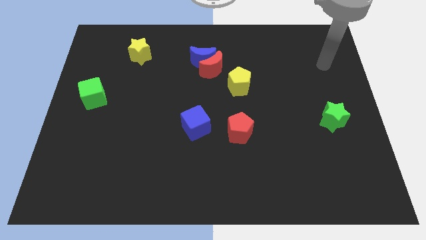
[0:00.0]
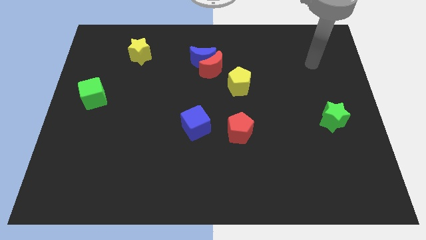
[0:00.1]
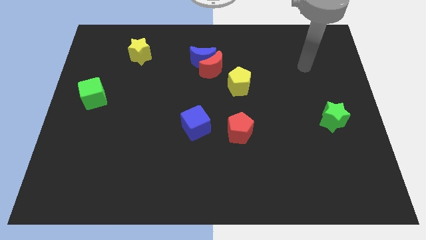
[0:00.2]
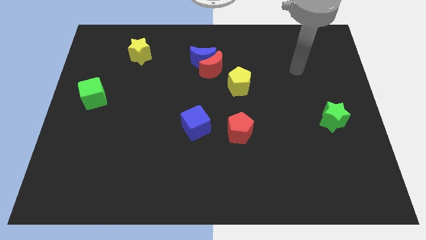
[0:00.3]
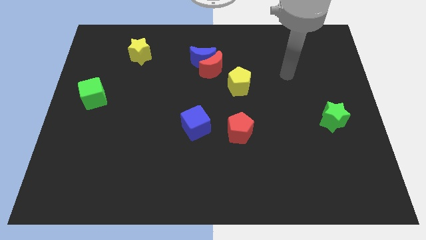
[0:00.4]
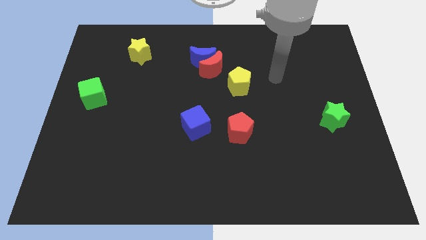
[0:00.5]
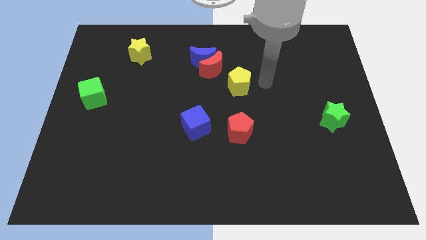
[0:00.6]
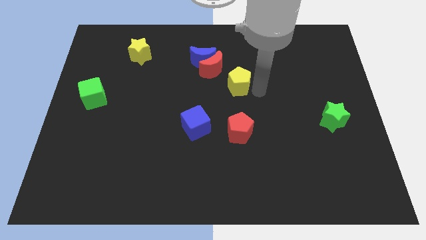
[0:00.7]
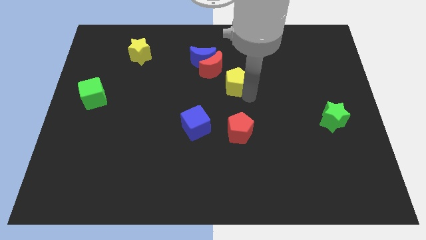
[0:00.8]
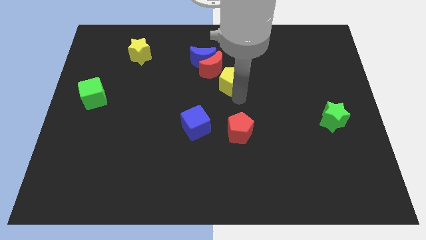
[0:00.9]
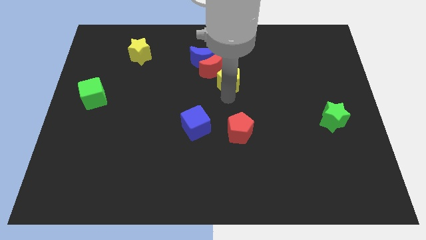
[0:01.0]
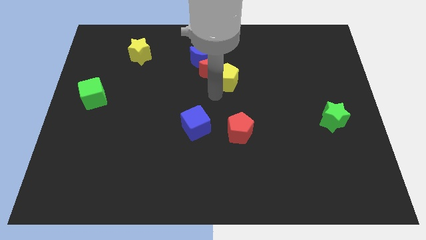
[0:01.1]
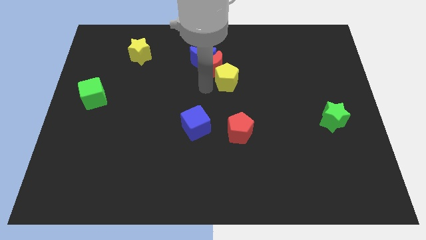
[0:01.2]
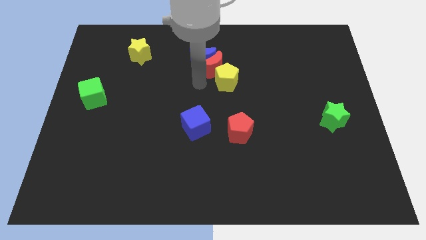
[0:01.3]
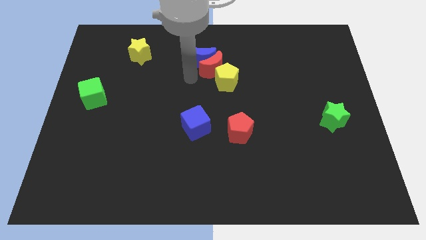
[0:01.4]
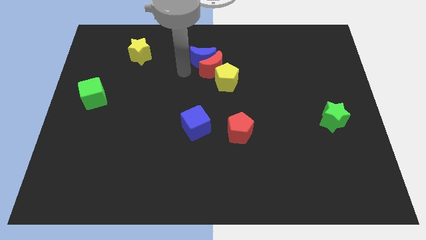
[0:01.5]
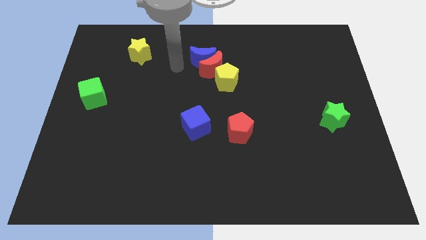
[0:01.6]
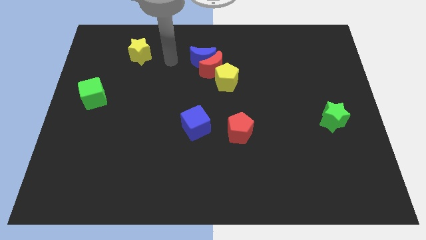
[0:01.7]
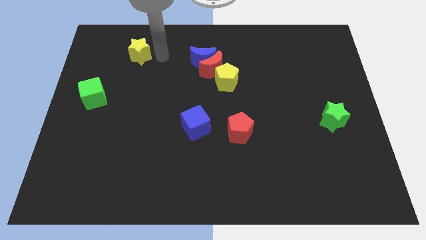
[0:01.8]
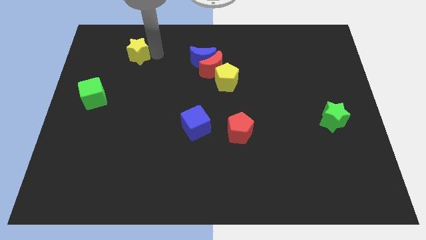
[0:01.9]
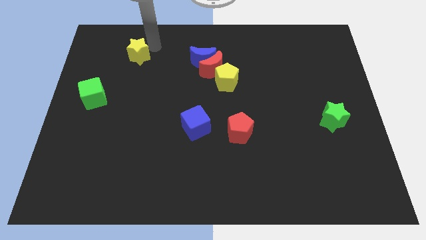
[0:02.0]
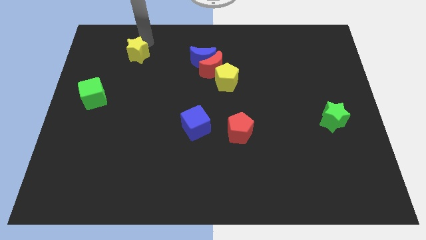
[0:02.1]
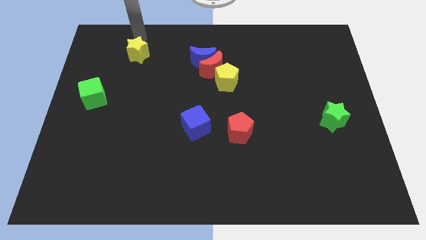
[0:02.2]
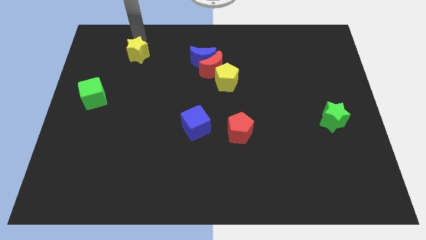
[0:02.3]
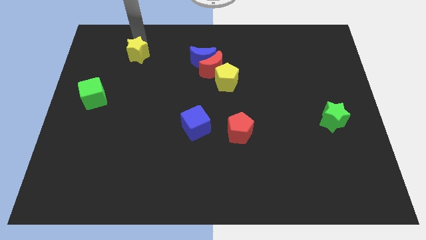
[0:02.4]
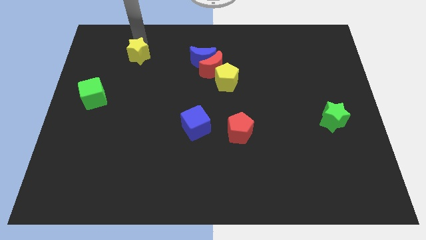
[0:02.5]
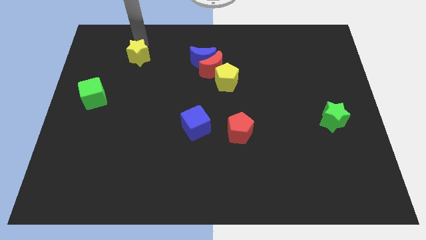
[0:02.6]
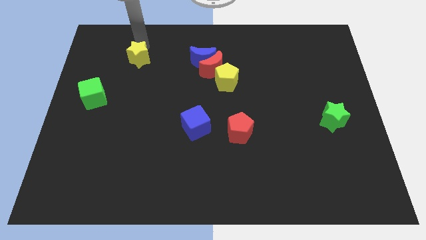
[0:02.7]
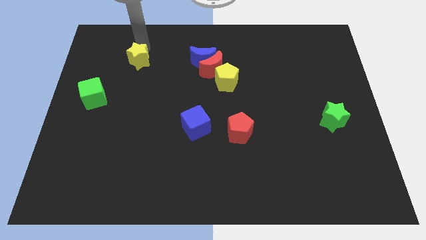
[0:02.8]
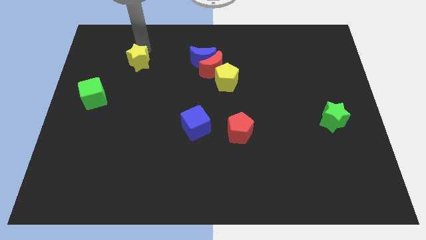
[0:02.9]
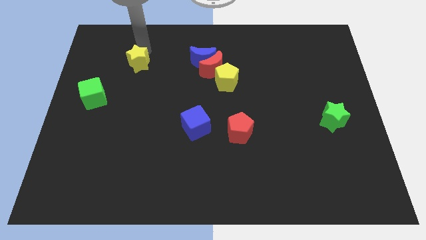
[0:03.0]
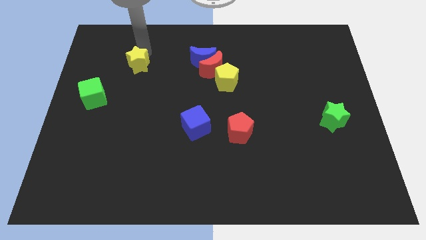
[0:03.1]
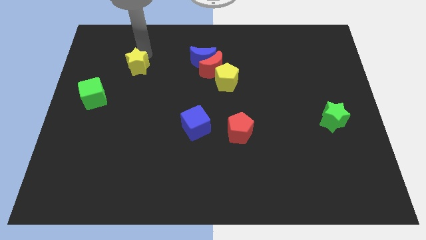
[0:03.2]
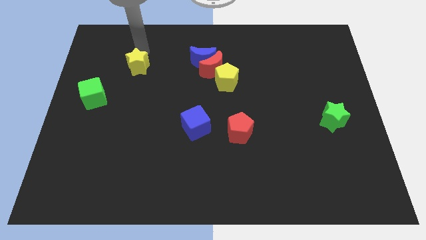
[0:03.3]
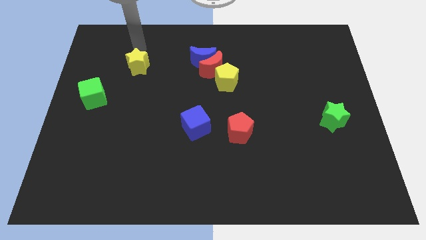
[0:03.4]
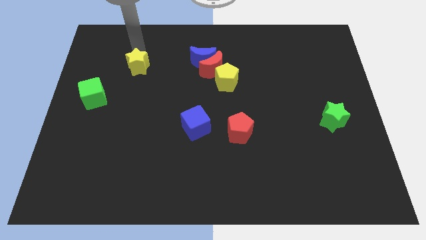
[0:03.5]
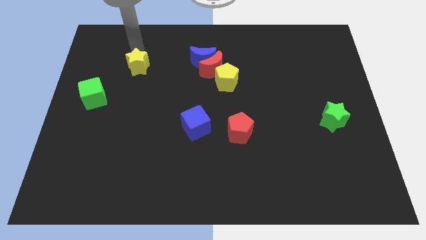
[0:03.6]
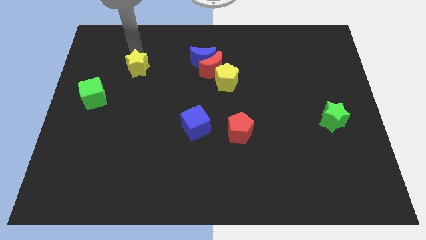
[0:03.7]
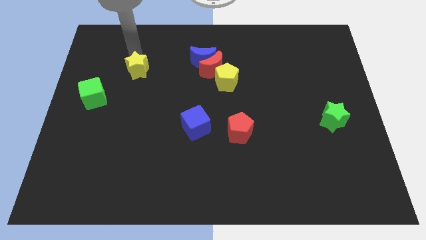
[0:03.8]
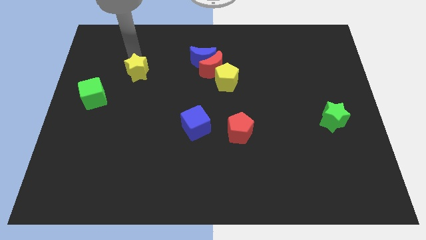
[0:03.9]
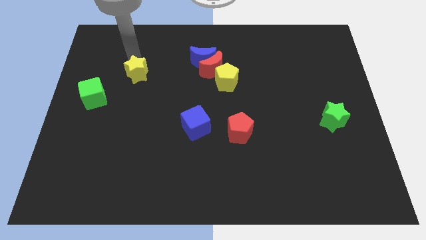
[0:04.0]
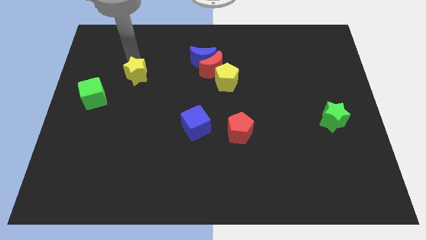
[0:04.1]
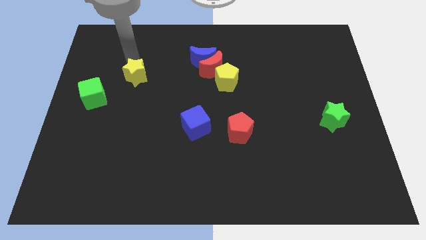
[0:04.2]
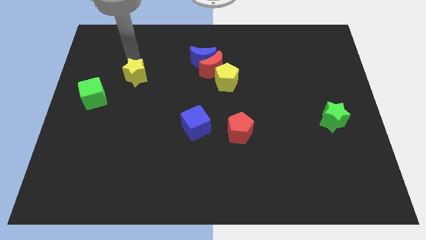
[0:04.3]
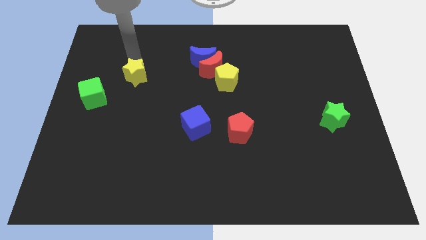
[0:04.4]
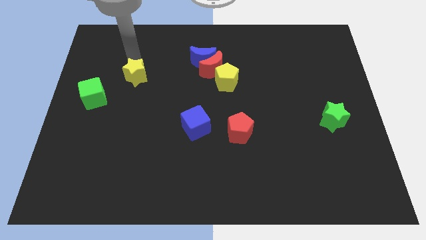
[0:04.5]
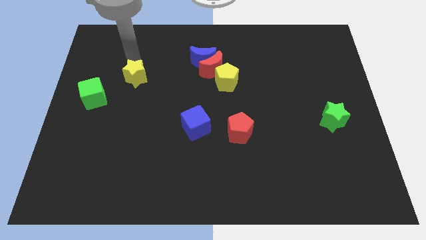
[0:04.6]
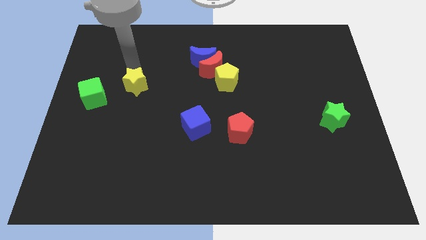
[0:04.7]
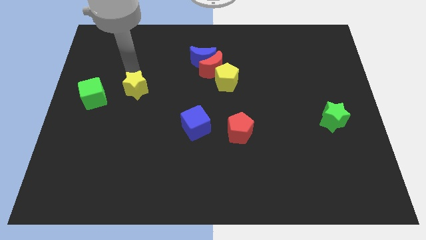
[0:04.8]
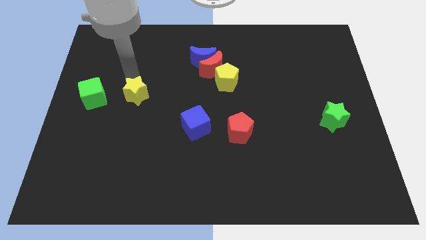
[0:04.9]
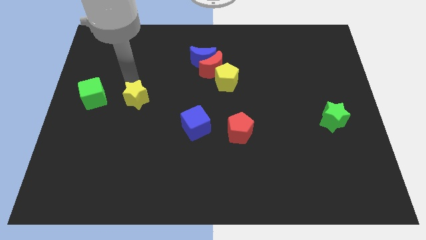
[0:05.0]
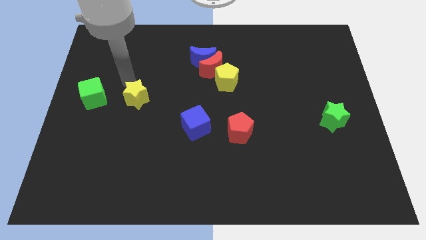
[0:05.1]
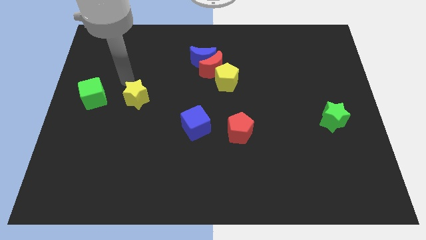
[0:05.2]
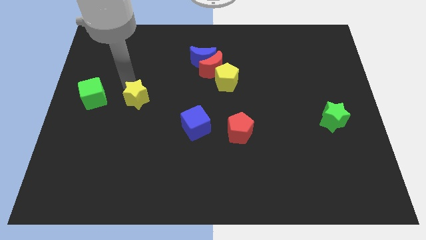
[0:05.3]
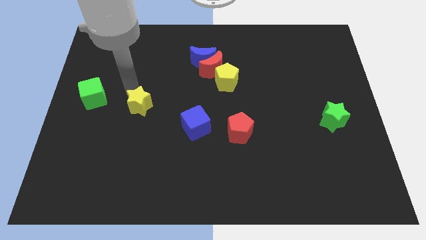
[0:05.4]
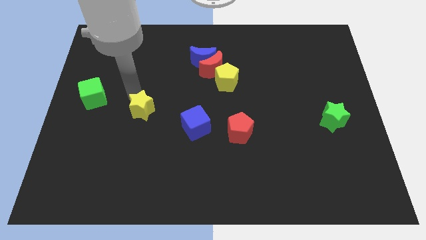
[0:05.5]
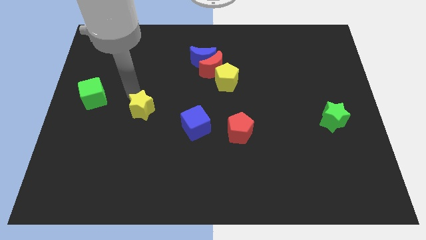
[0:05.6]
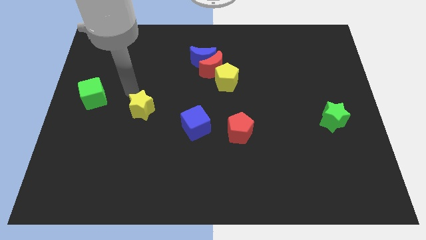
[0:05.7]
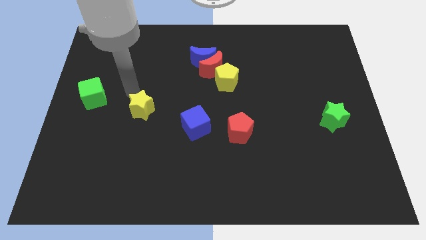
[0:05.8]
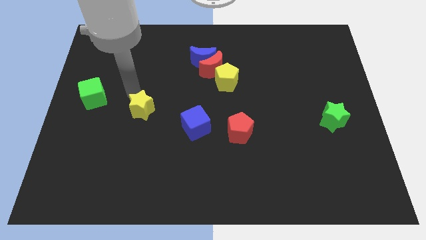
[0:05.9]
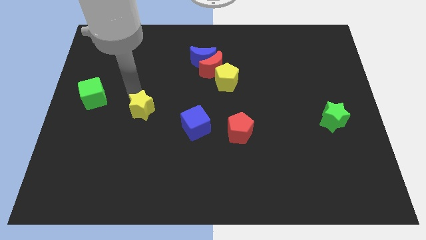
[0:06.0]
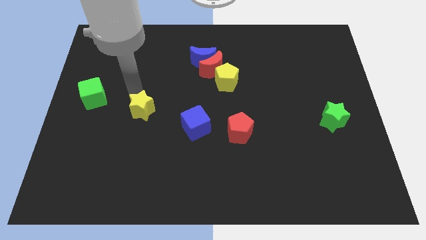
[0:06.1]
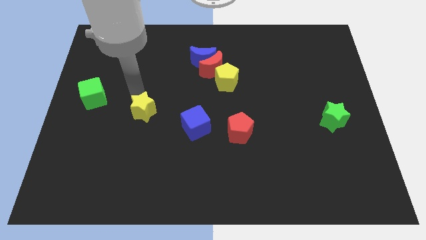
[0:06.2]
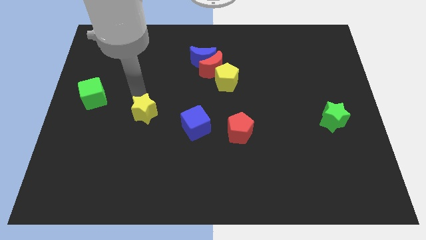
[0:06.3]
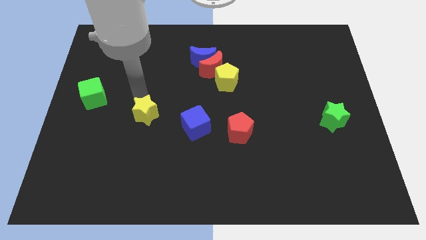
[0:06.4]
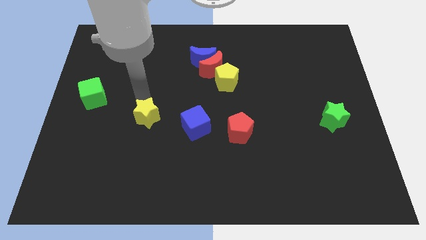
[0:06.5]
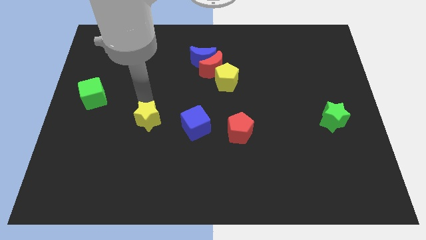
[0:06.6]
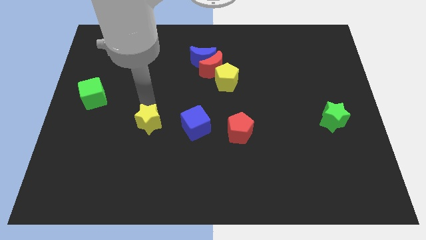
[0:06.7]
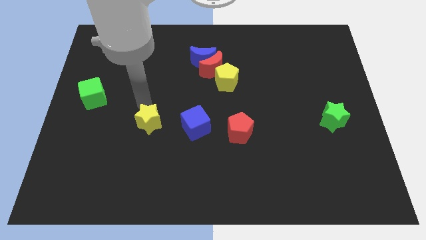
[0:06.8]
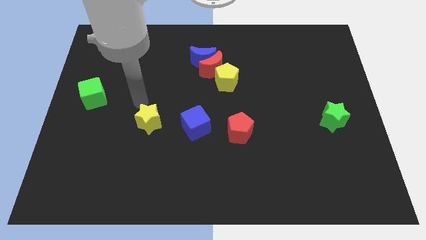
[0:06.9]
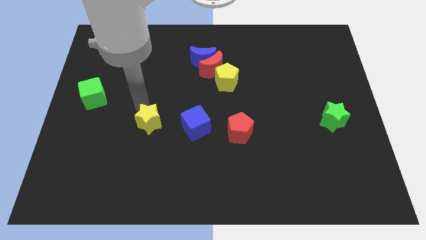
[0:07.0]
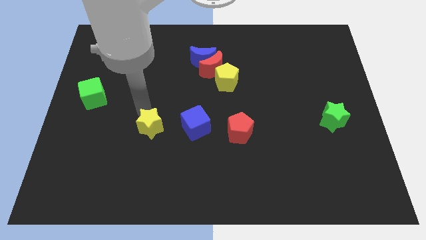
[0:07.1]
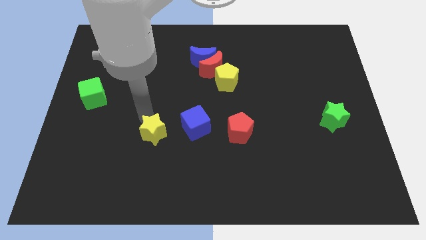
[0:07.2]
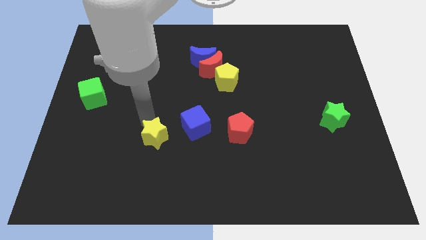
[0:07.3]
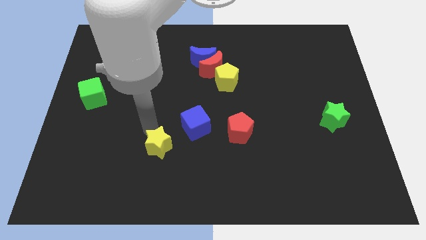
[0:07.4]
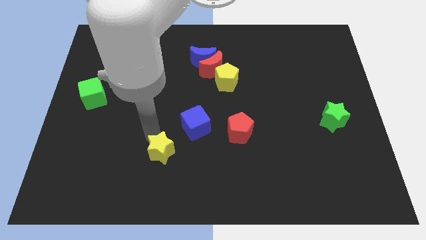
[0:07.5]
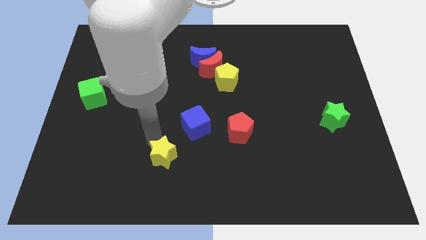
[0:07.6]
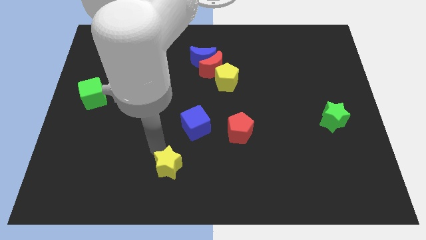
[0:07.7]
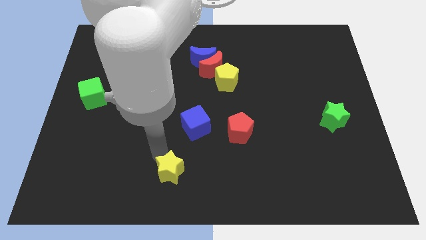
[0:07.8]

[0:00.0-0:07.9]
move the yellow star to the bottom side
